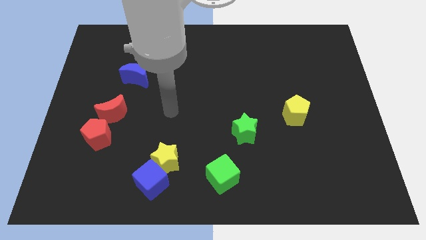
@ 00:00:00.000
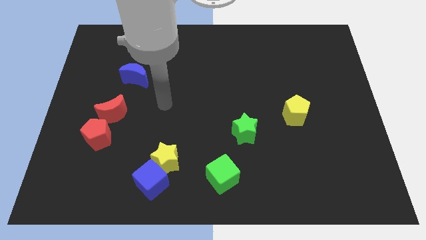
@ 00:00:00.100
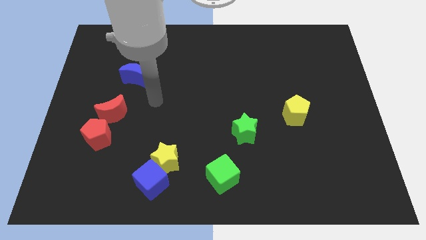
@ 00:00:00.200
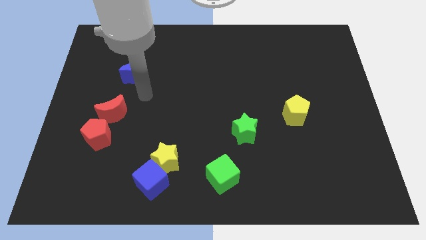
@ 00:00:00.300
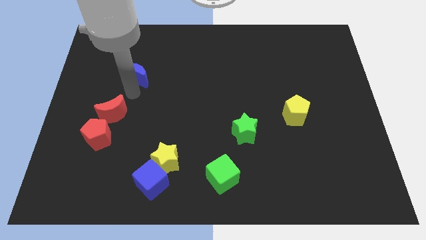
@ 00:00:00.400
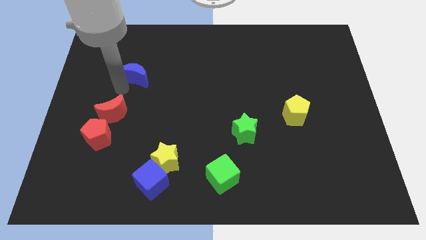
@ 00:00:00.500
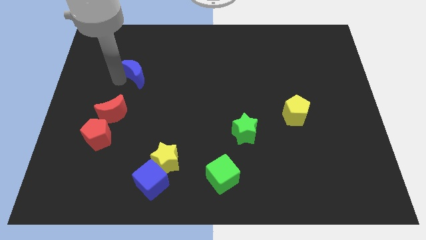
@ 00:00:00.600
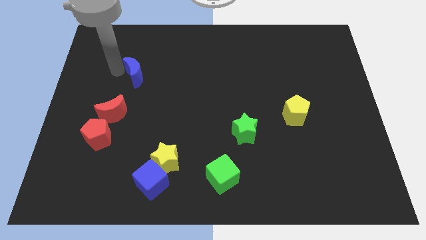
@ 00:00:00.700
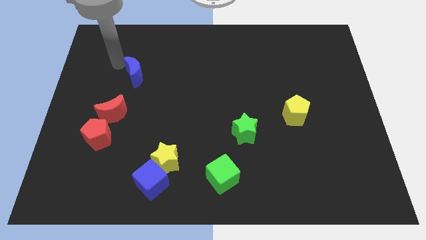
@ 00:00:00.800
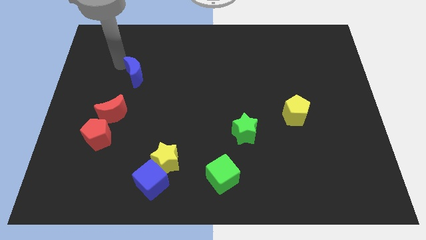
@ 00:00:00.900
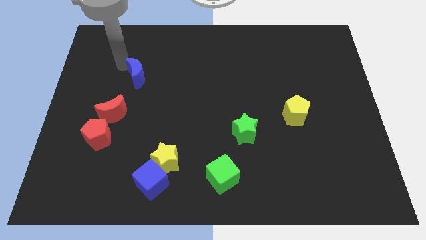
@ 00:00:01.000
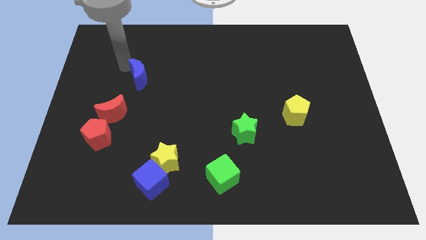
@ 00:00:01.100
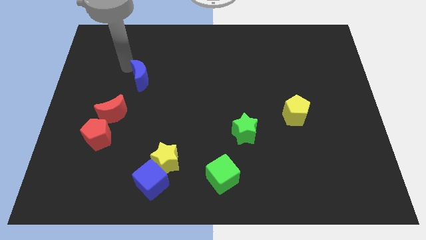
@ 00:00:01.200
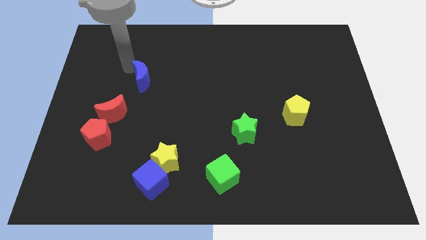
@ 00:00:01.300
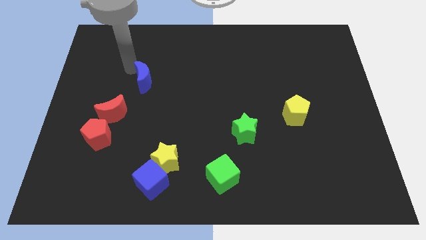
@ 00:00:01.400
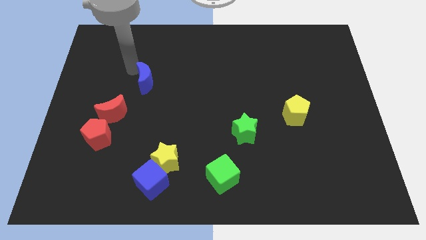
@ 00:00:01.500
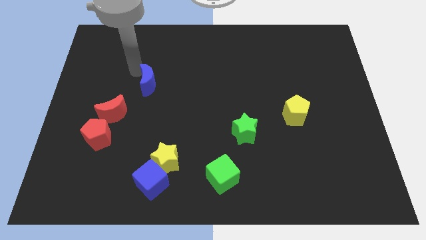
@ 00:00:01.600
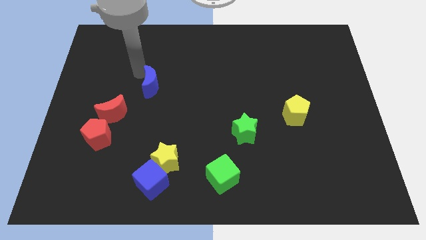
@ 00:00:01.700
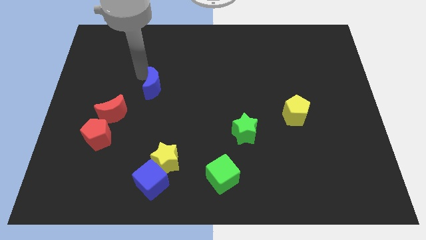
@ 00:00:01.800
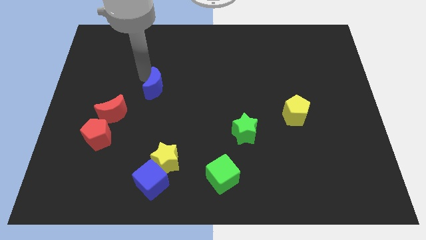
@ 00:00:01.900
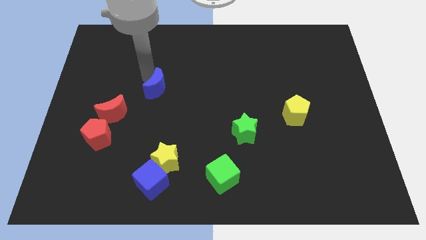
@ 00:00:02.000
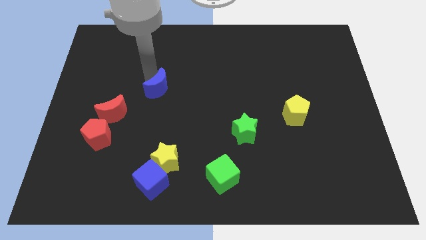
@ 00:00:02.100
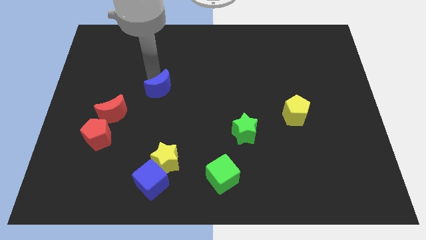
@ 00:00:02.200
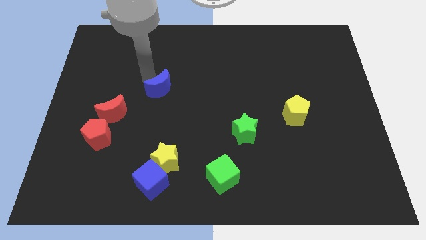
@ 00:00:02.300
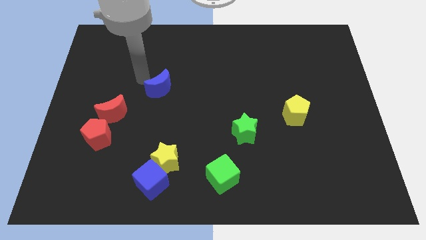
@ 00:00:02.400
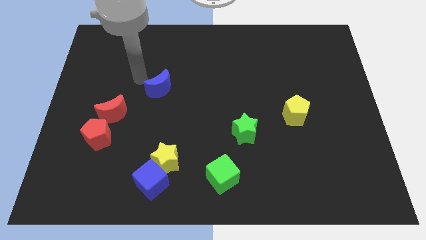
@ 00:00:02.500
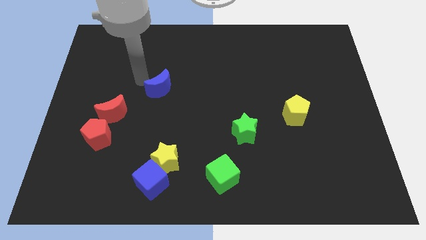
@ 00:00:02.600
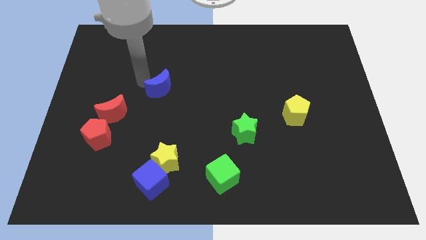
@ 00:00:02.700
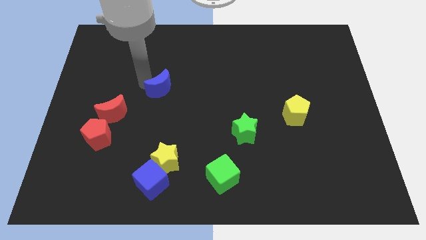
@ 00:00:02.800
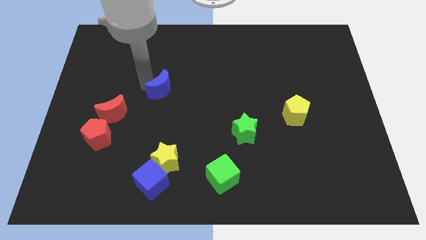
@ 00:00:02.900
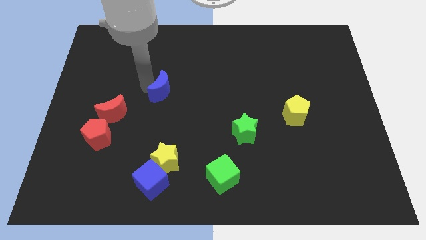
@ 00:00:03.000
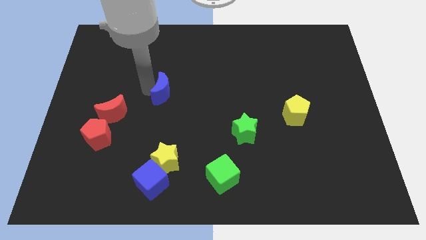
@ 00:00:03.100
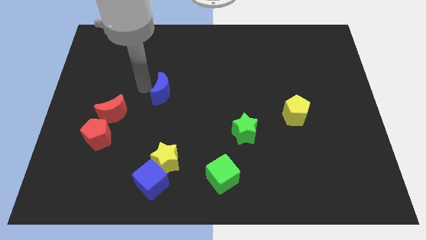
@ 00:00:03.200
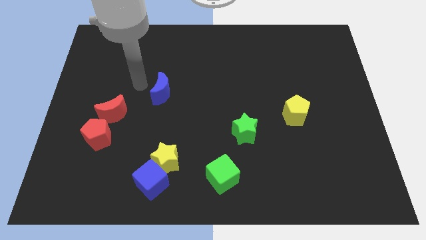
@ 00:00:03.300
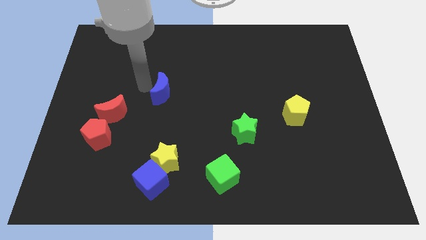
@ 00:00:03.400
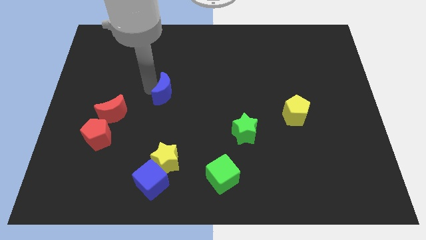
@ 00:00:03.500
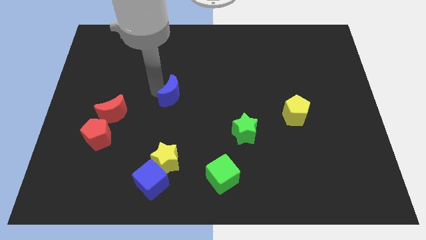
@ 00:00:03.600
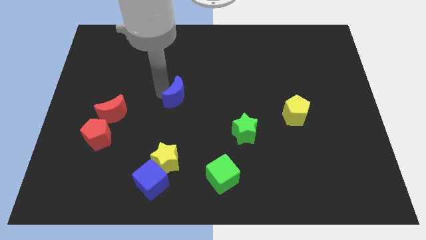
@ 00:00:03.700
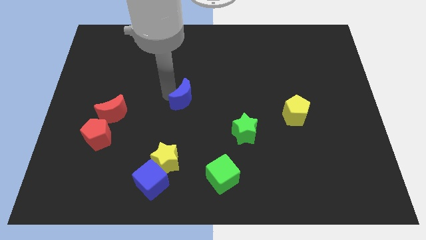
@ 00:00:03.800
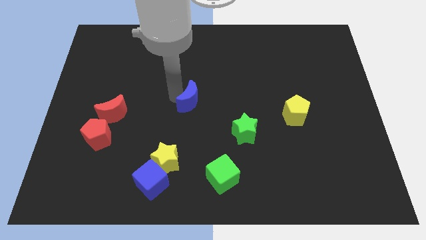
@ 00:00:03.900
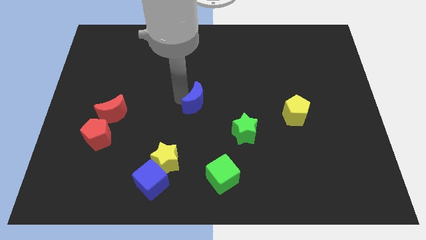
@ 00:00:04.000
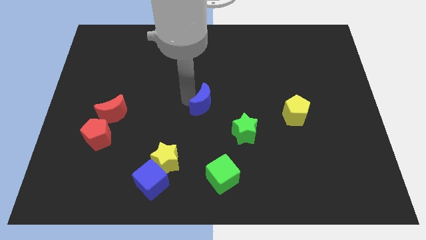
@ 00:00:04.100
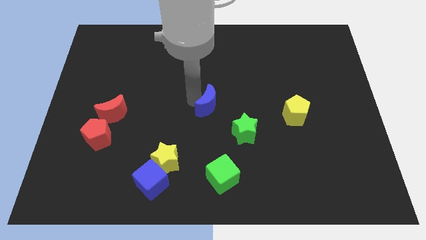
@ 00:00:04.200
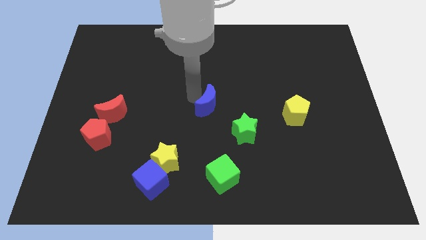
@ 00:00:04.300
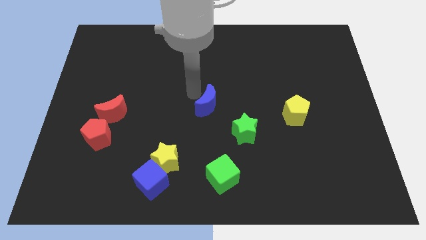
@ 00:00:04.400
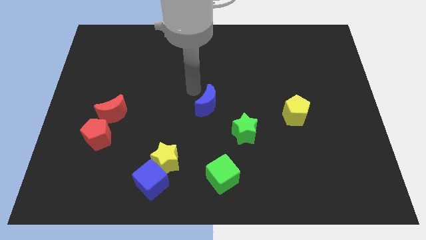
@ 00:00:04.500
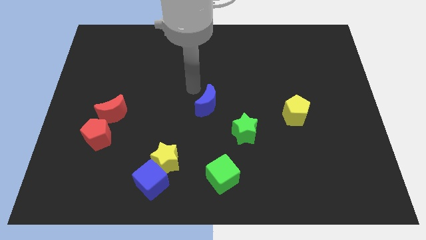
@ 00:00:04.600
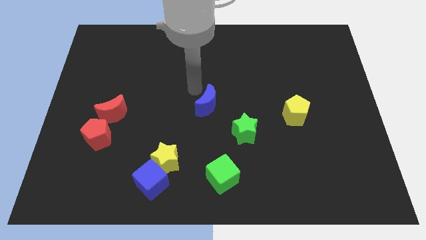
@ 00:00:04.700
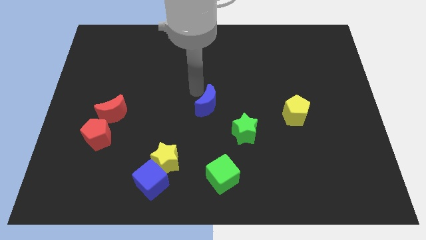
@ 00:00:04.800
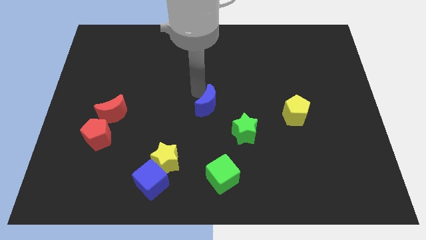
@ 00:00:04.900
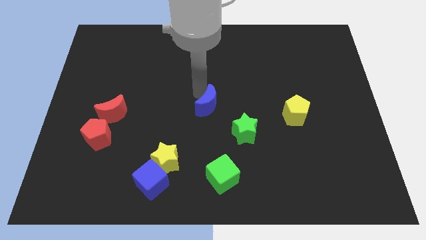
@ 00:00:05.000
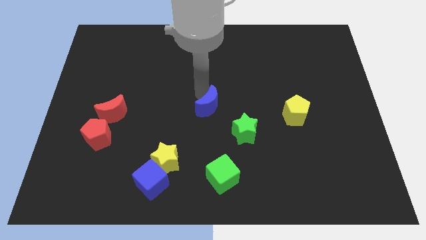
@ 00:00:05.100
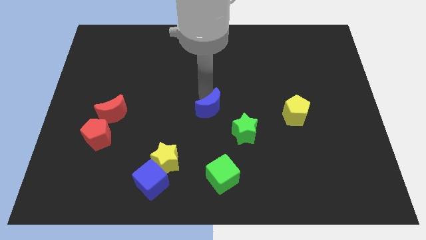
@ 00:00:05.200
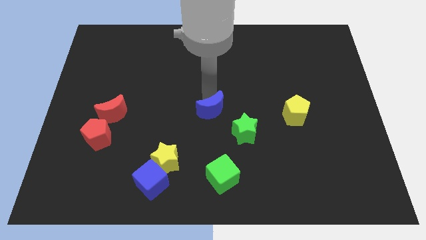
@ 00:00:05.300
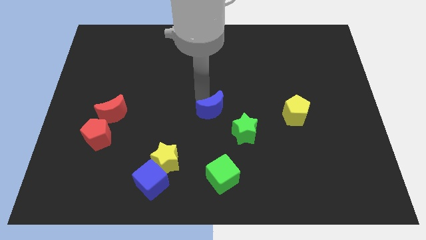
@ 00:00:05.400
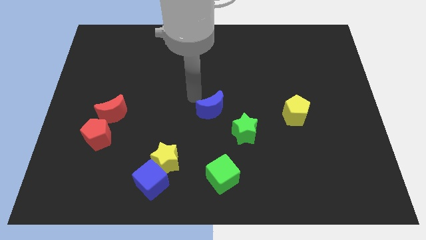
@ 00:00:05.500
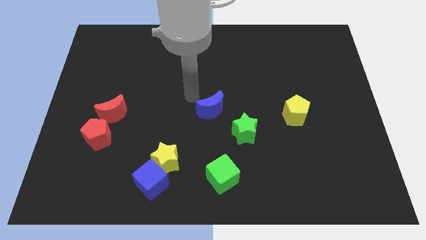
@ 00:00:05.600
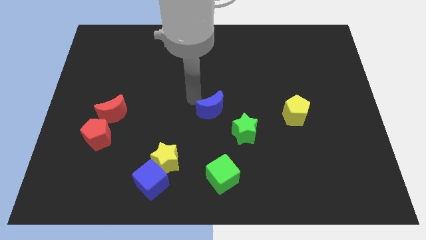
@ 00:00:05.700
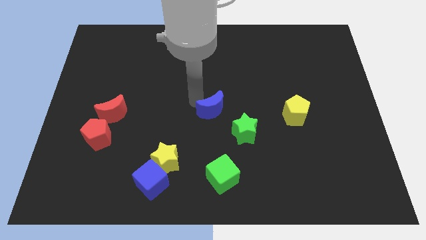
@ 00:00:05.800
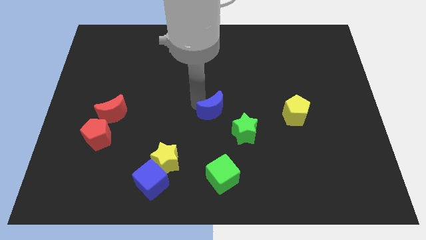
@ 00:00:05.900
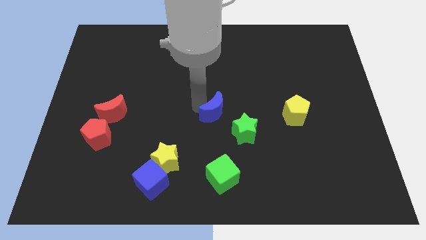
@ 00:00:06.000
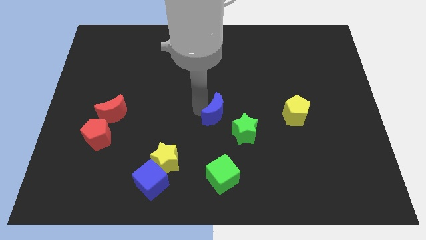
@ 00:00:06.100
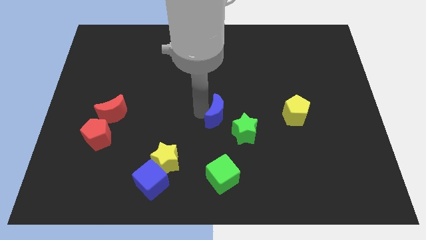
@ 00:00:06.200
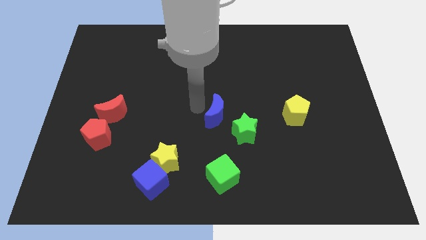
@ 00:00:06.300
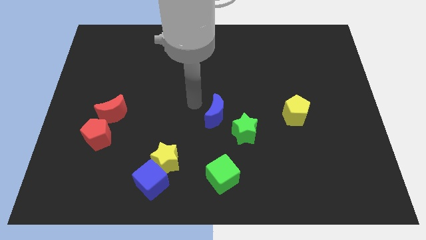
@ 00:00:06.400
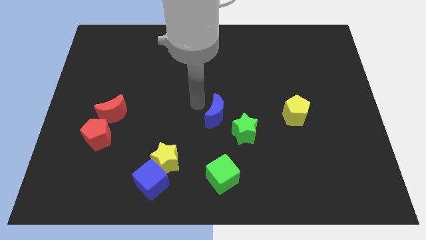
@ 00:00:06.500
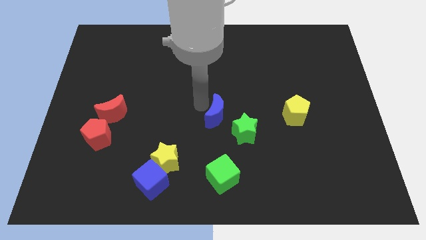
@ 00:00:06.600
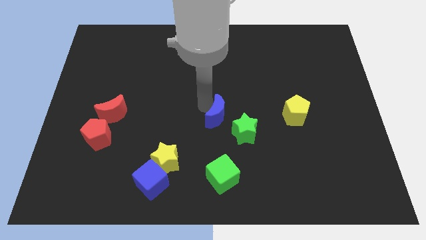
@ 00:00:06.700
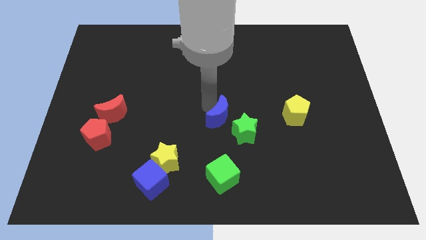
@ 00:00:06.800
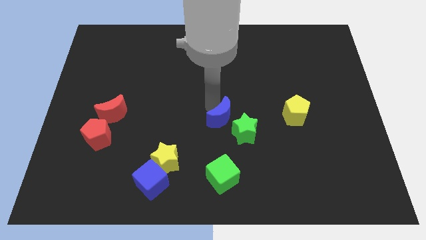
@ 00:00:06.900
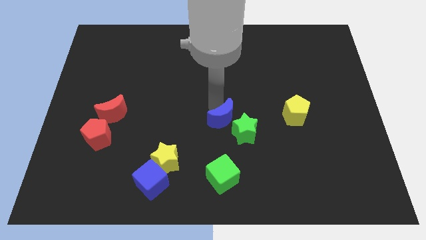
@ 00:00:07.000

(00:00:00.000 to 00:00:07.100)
push the blue moon next to the green star
